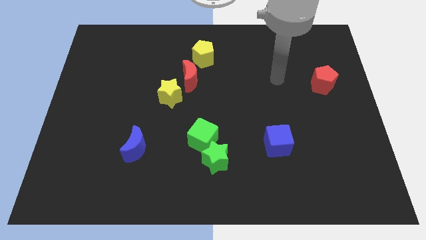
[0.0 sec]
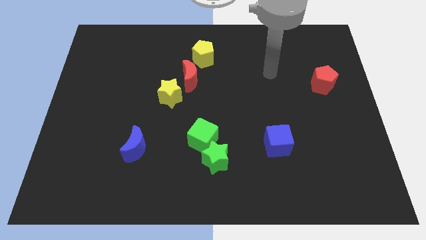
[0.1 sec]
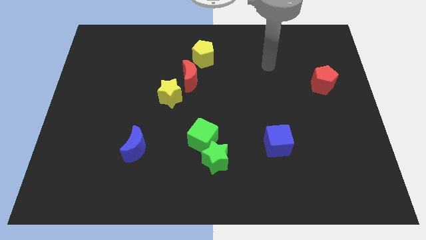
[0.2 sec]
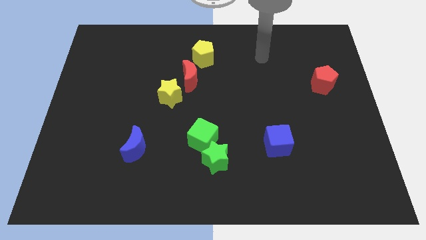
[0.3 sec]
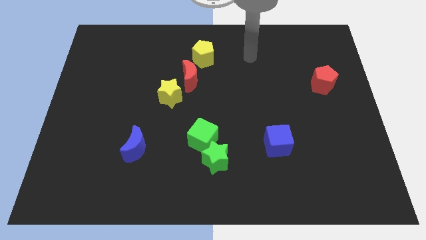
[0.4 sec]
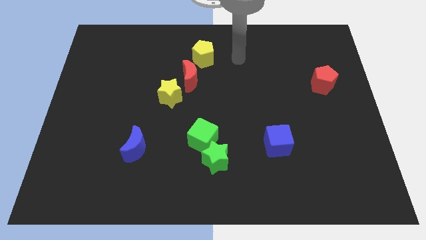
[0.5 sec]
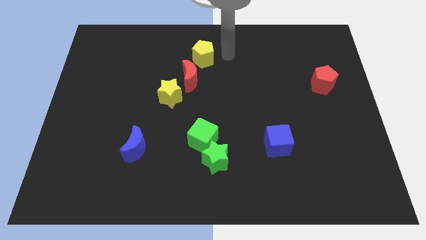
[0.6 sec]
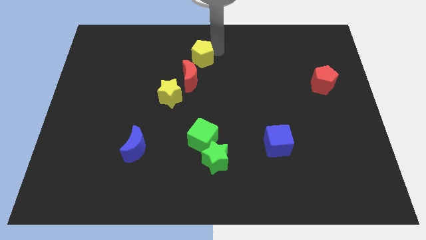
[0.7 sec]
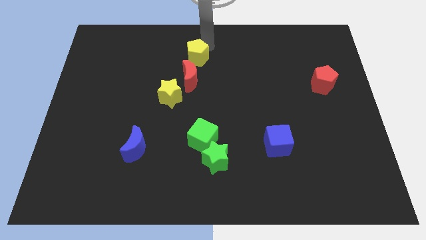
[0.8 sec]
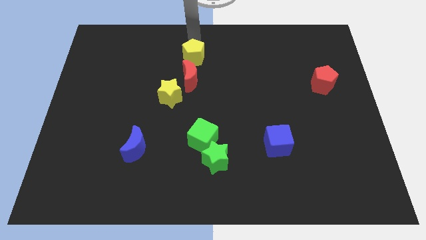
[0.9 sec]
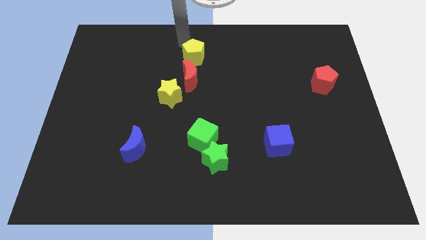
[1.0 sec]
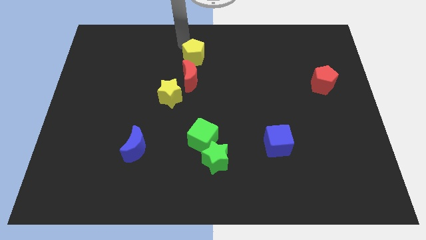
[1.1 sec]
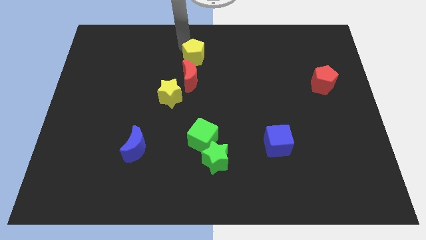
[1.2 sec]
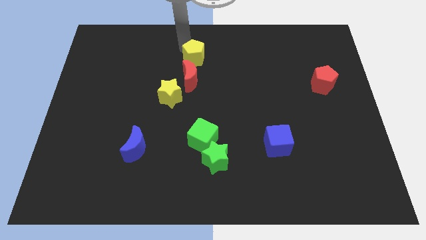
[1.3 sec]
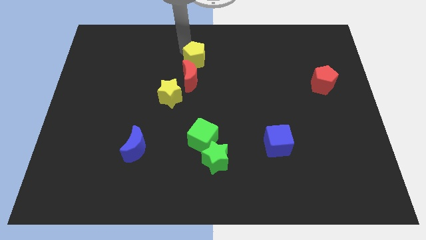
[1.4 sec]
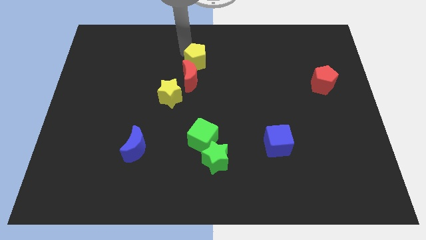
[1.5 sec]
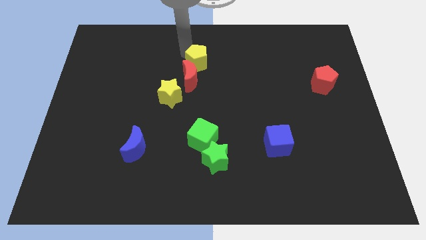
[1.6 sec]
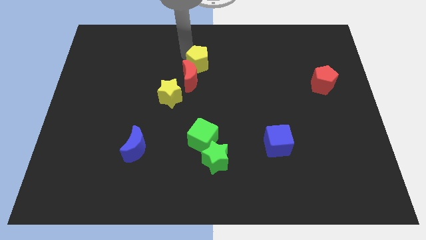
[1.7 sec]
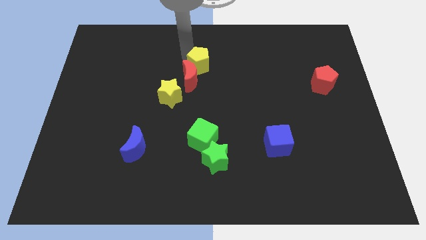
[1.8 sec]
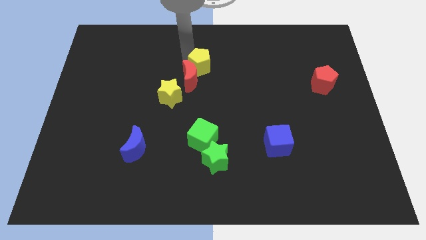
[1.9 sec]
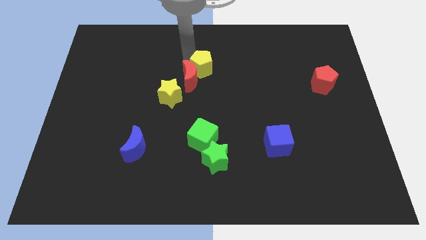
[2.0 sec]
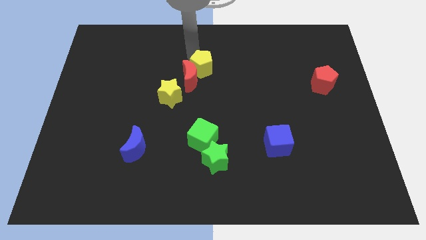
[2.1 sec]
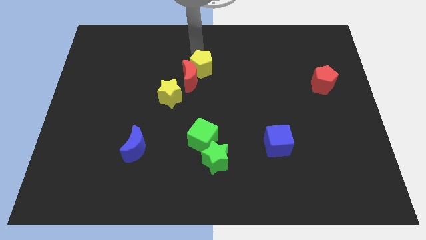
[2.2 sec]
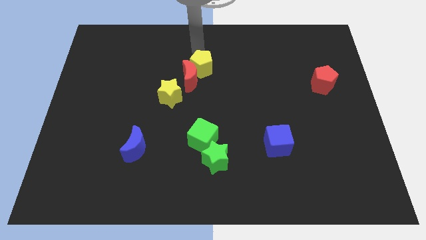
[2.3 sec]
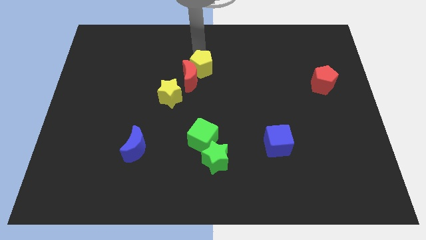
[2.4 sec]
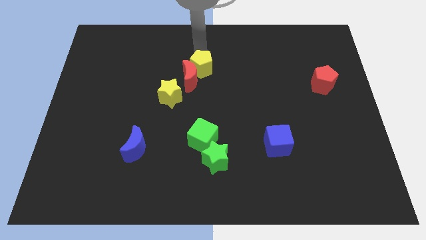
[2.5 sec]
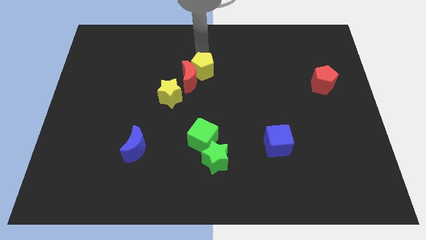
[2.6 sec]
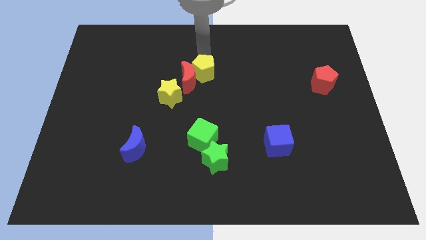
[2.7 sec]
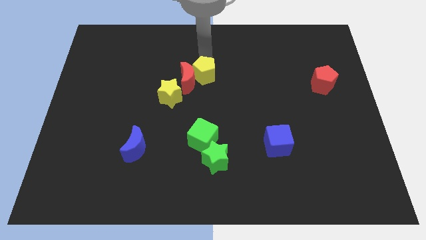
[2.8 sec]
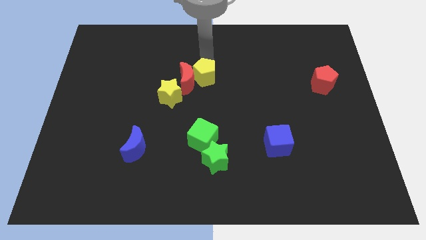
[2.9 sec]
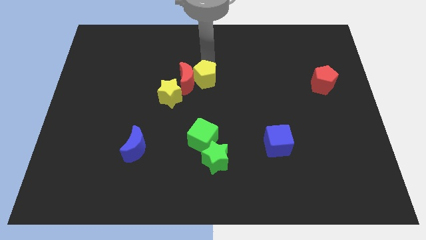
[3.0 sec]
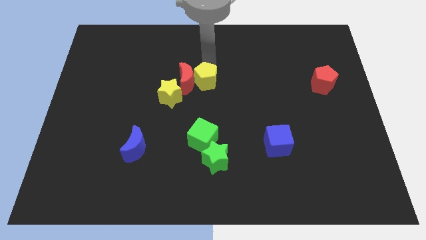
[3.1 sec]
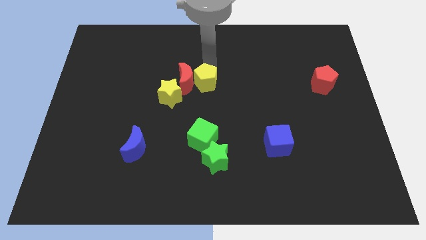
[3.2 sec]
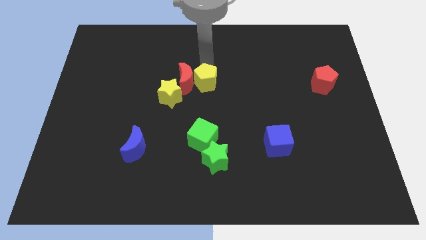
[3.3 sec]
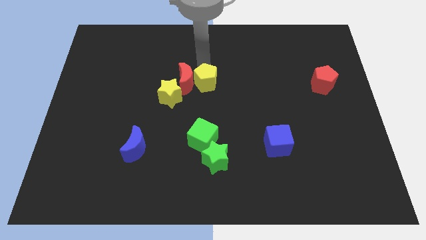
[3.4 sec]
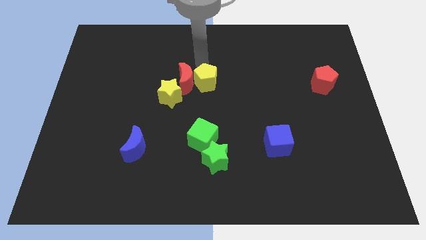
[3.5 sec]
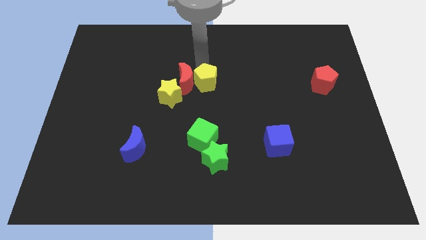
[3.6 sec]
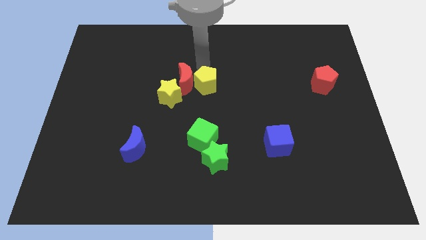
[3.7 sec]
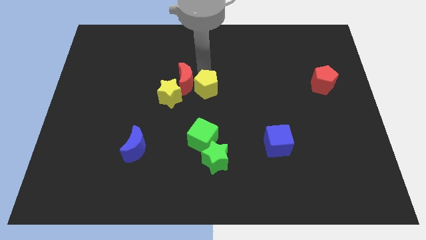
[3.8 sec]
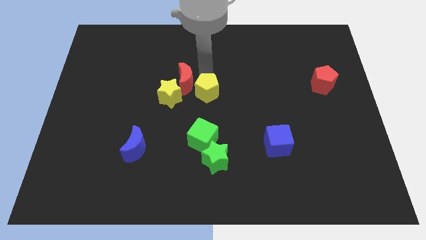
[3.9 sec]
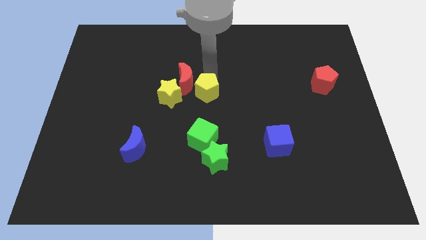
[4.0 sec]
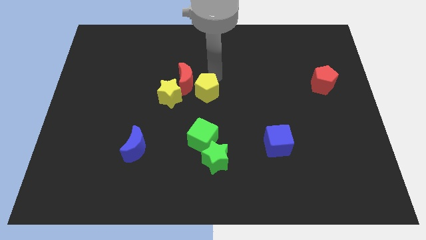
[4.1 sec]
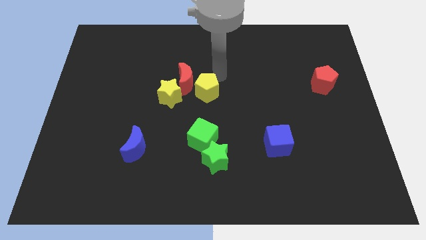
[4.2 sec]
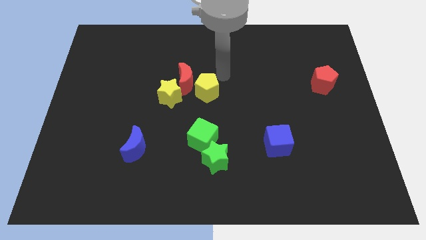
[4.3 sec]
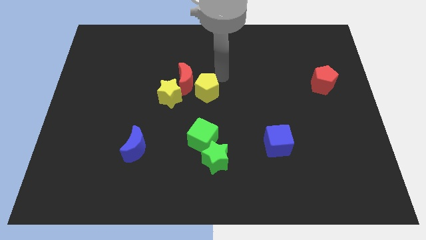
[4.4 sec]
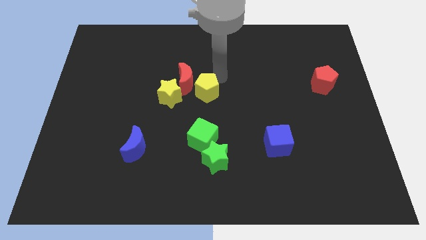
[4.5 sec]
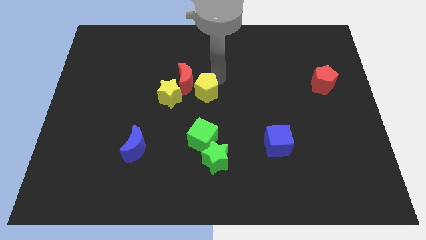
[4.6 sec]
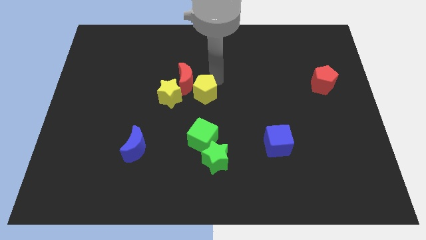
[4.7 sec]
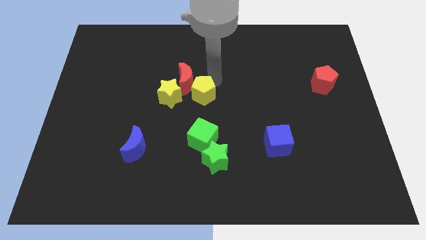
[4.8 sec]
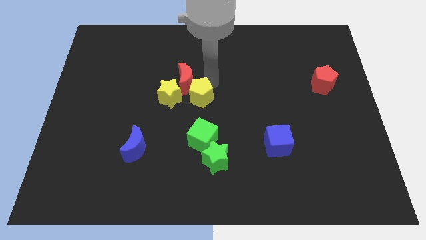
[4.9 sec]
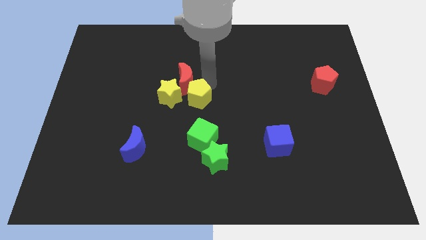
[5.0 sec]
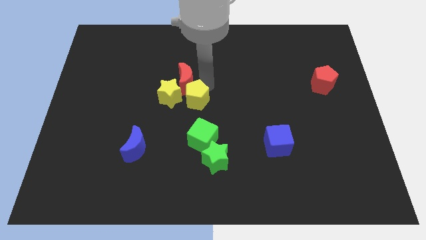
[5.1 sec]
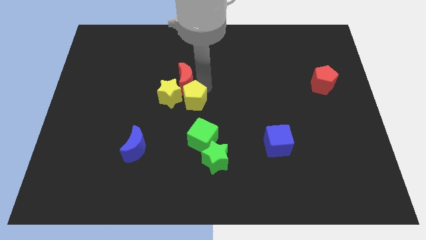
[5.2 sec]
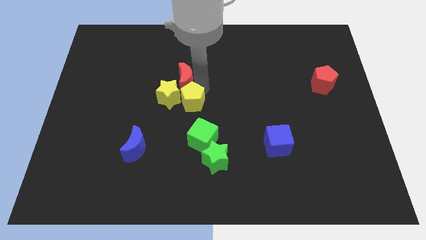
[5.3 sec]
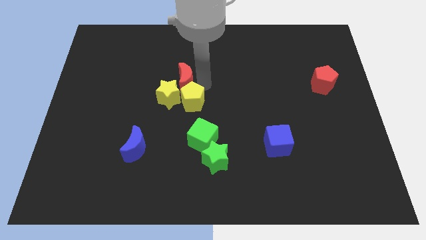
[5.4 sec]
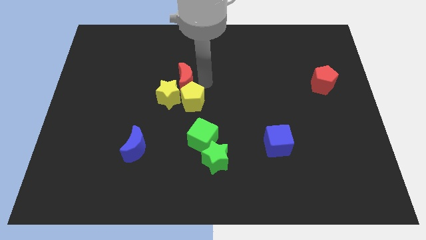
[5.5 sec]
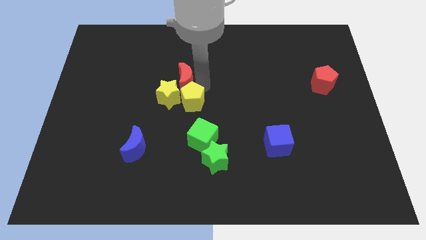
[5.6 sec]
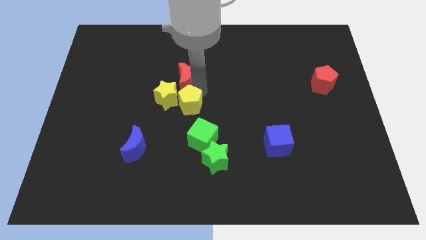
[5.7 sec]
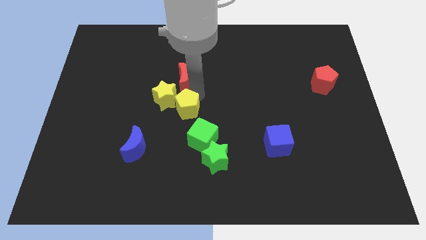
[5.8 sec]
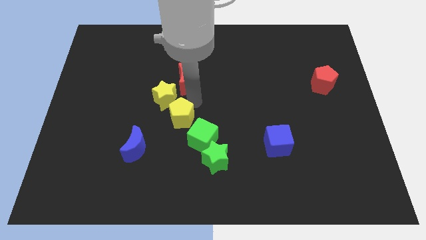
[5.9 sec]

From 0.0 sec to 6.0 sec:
slide the yellow pentagon diagonally up and to the right of the blue moon

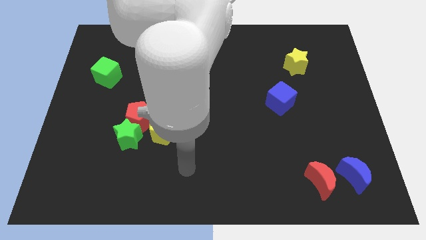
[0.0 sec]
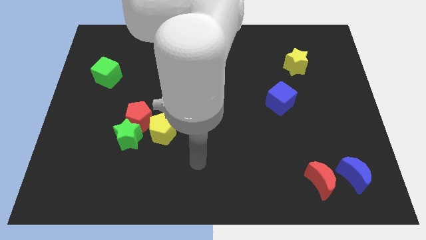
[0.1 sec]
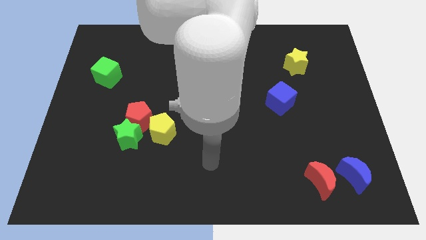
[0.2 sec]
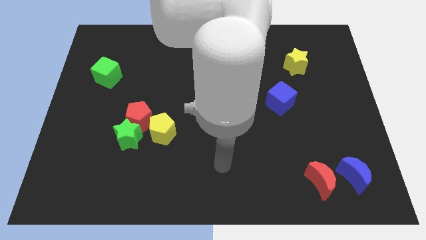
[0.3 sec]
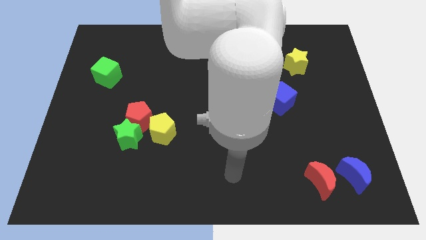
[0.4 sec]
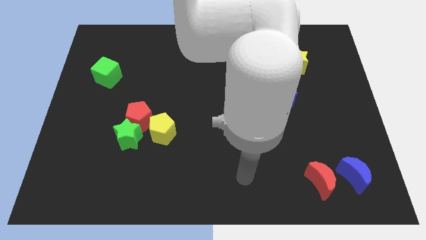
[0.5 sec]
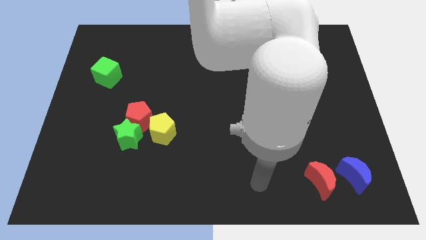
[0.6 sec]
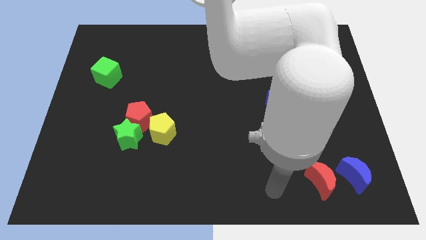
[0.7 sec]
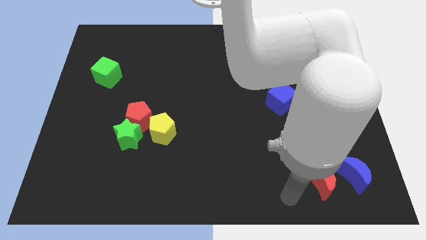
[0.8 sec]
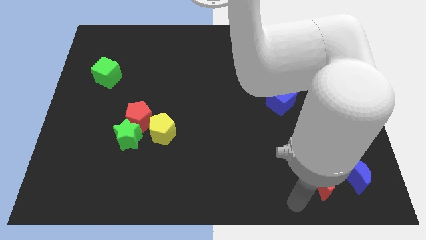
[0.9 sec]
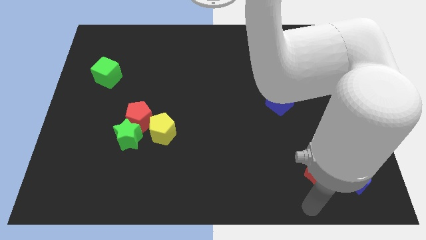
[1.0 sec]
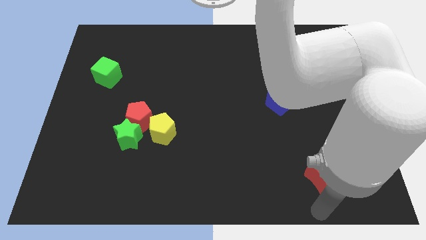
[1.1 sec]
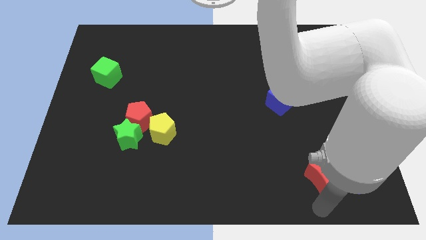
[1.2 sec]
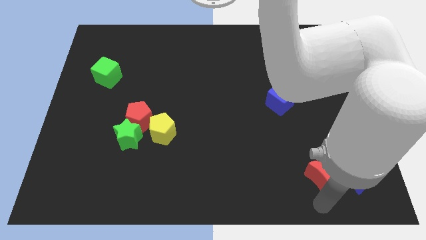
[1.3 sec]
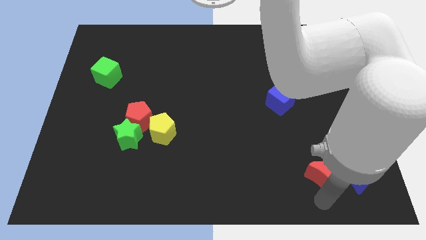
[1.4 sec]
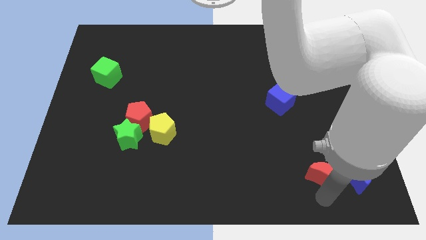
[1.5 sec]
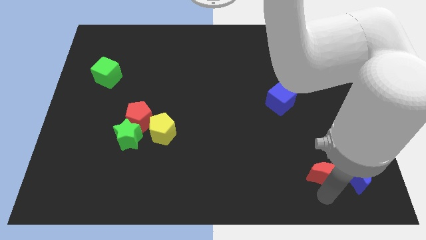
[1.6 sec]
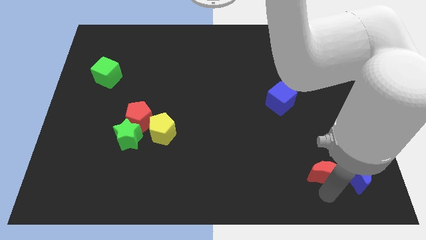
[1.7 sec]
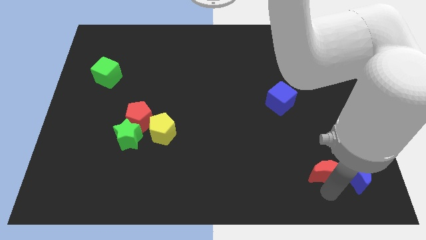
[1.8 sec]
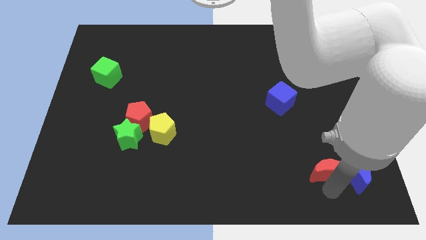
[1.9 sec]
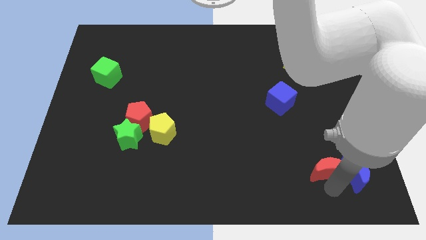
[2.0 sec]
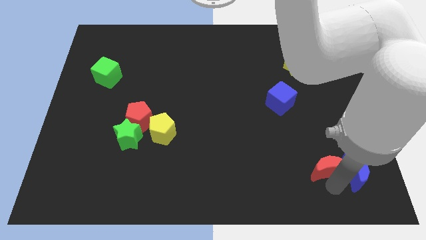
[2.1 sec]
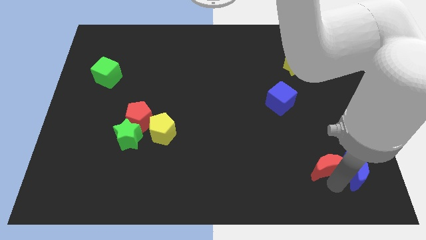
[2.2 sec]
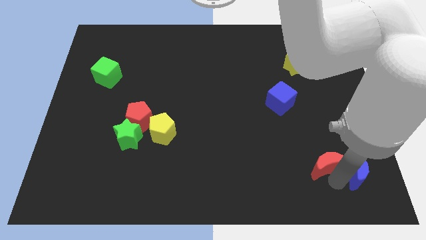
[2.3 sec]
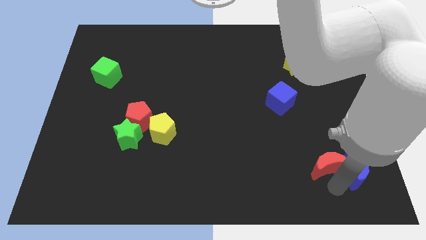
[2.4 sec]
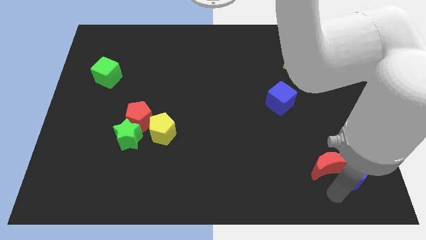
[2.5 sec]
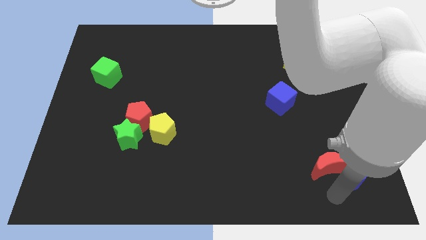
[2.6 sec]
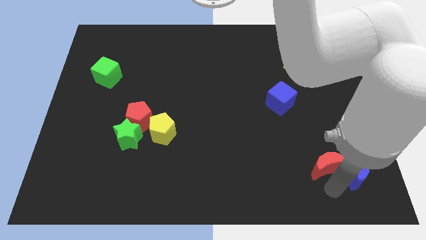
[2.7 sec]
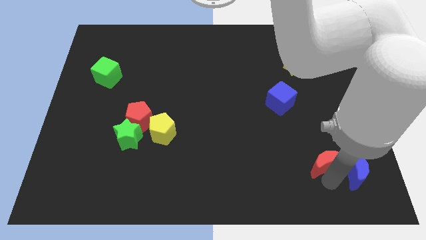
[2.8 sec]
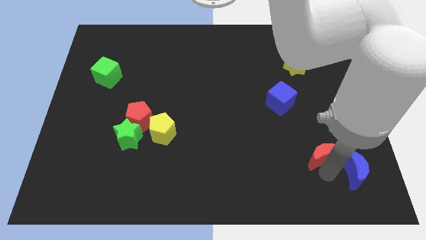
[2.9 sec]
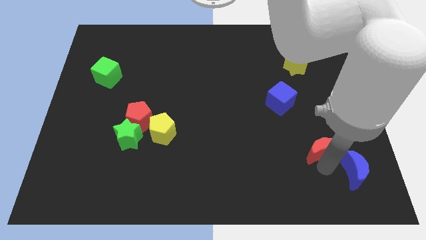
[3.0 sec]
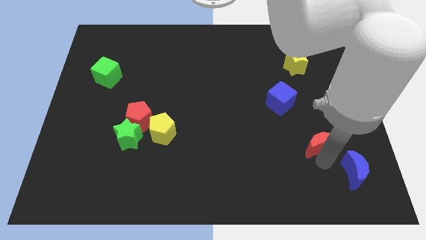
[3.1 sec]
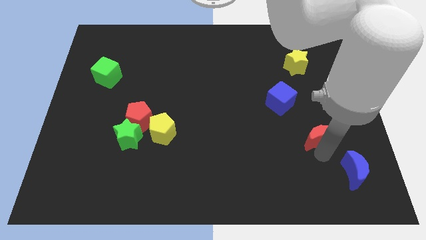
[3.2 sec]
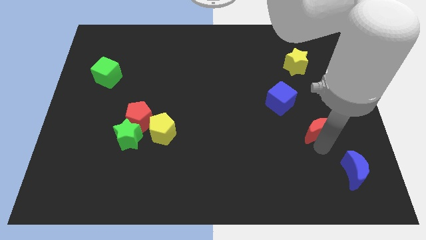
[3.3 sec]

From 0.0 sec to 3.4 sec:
slide the red moon to the bottom right of the blue cube
